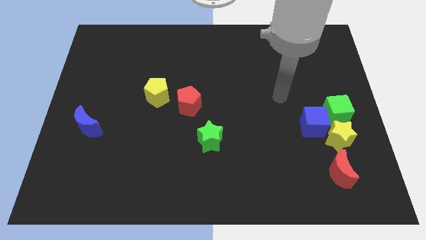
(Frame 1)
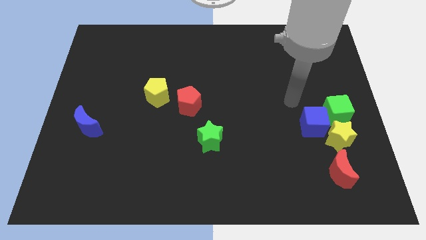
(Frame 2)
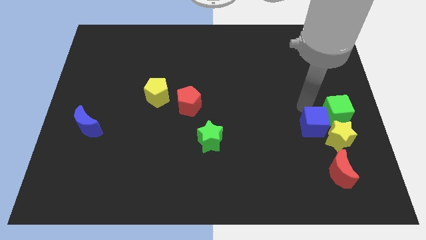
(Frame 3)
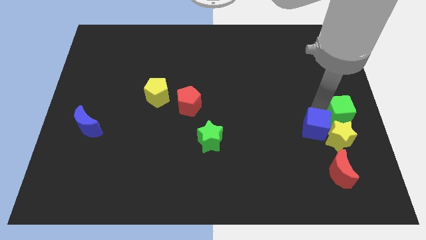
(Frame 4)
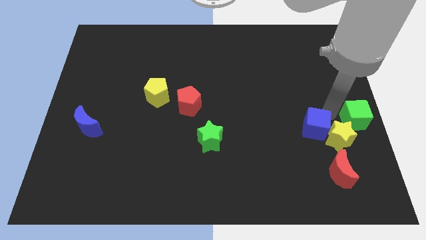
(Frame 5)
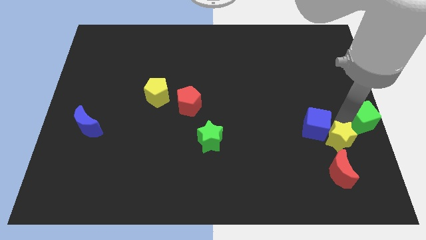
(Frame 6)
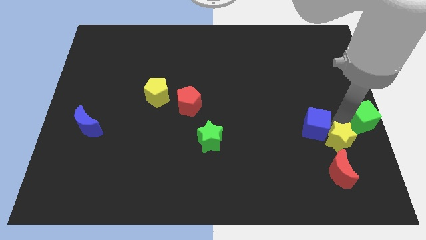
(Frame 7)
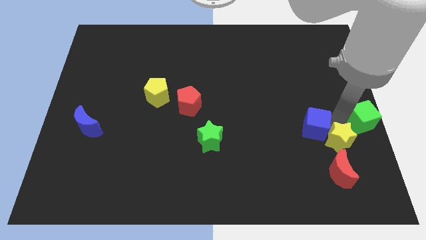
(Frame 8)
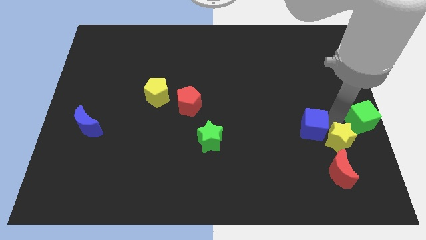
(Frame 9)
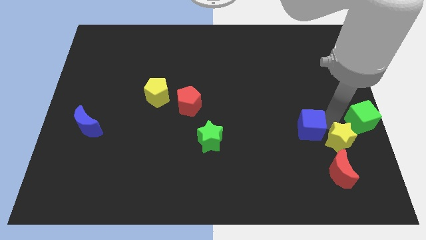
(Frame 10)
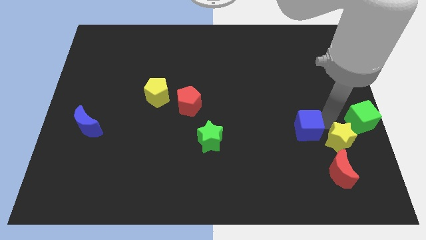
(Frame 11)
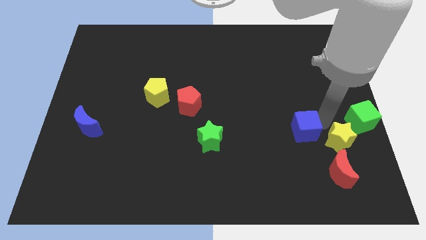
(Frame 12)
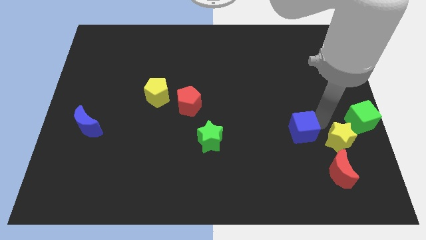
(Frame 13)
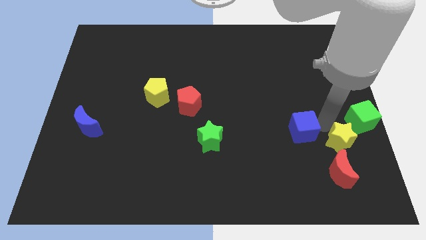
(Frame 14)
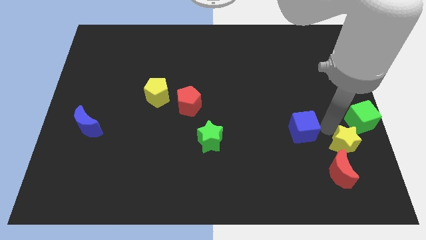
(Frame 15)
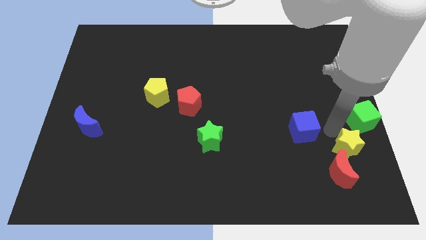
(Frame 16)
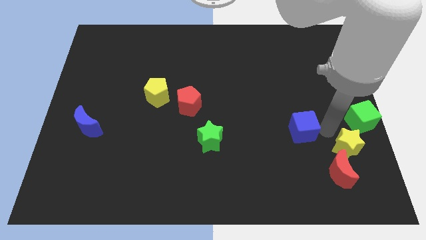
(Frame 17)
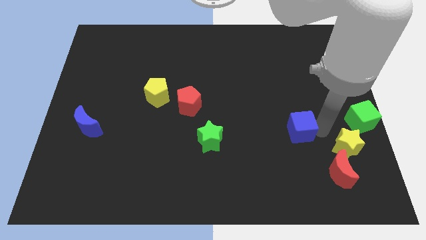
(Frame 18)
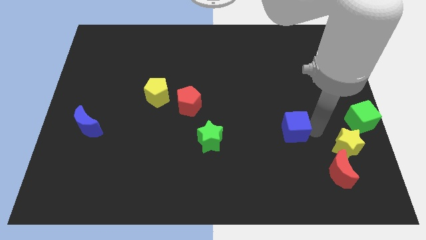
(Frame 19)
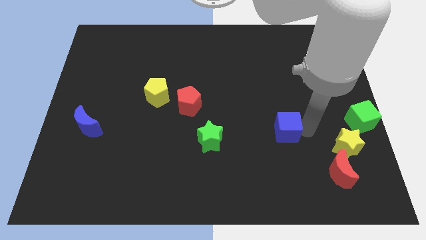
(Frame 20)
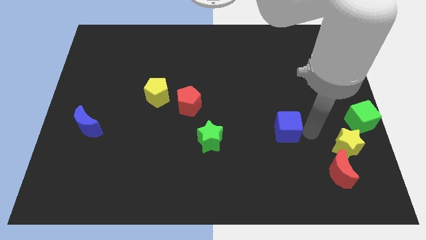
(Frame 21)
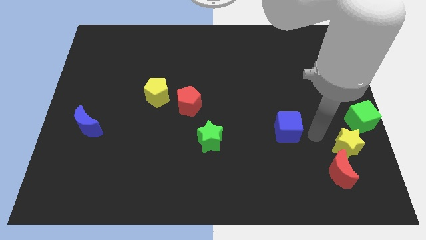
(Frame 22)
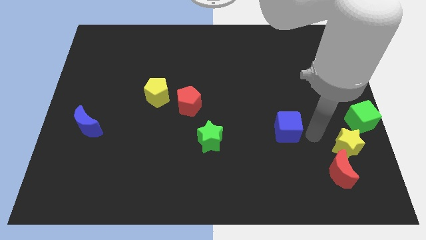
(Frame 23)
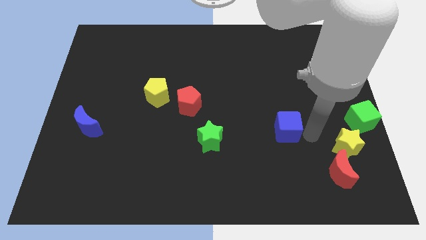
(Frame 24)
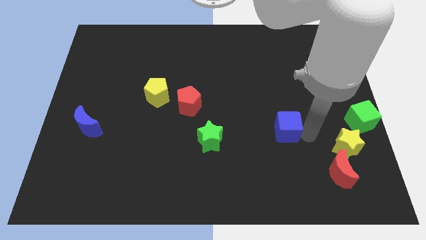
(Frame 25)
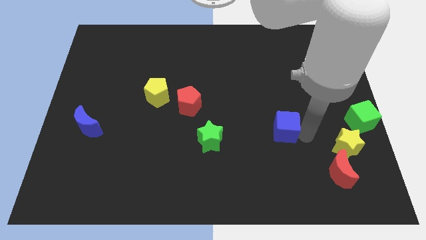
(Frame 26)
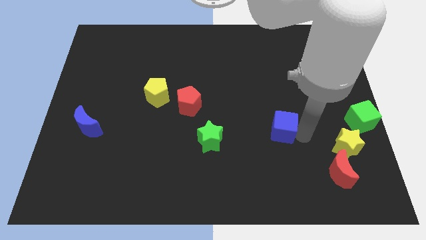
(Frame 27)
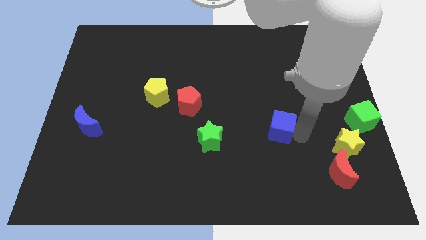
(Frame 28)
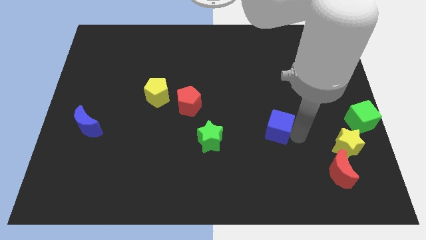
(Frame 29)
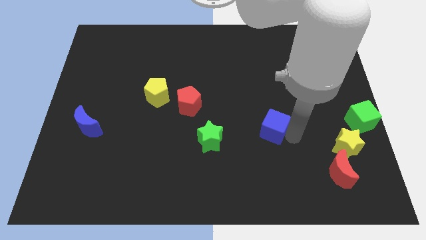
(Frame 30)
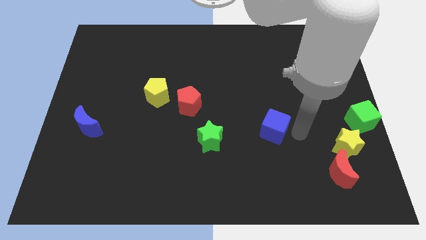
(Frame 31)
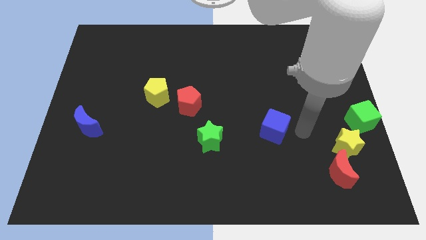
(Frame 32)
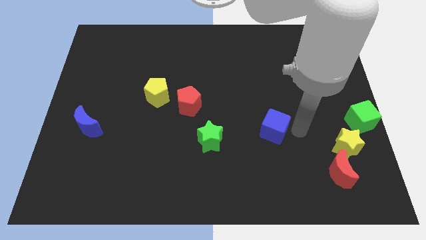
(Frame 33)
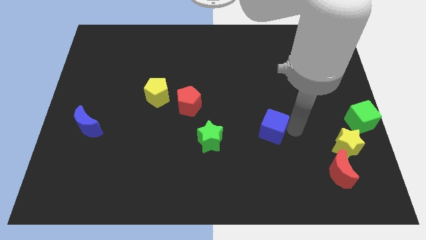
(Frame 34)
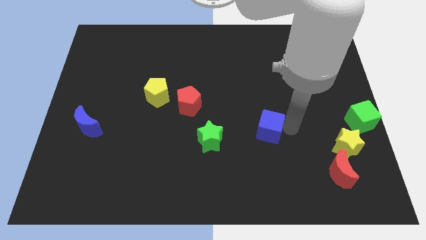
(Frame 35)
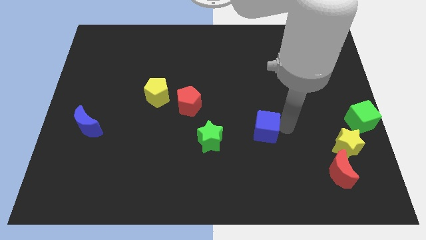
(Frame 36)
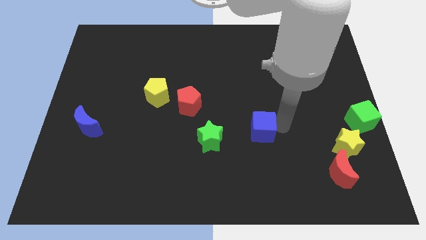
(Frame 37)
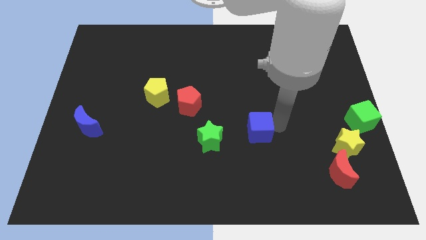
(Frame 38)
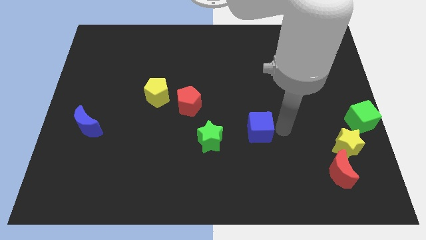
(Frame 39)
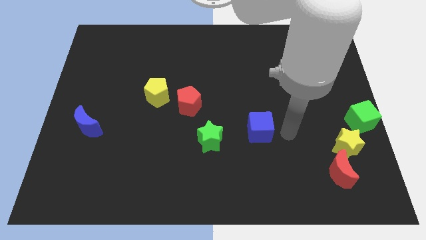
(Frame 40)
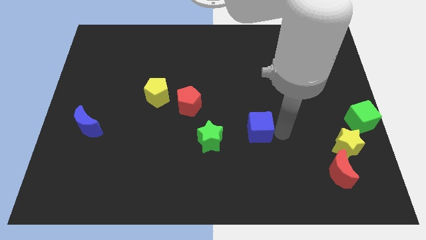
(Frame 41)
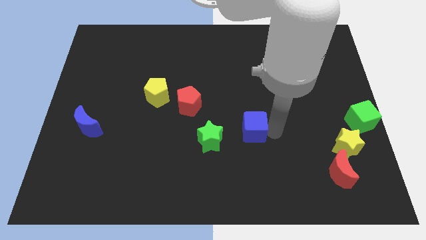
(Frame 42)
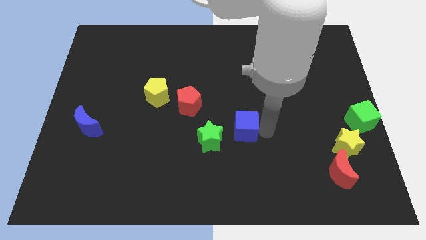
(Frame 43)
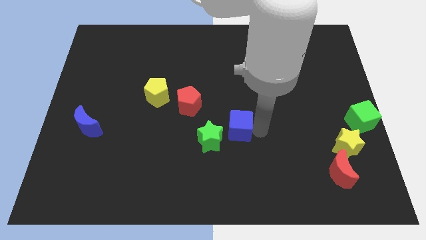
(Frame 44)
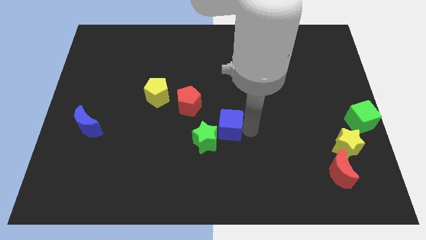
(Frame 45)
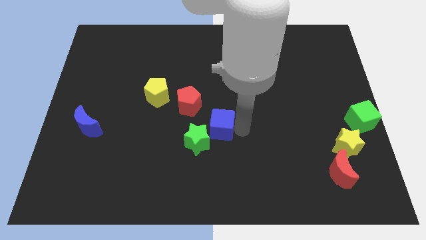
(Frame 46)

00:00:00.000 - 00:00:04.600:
move the blue cube left

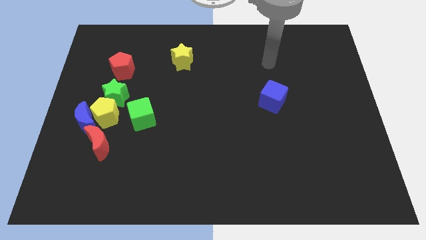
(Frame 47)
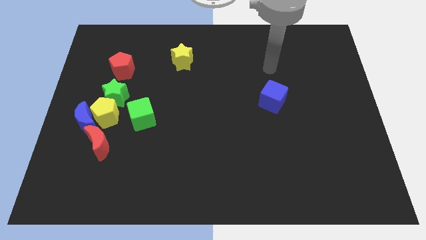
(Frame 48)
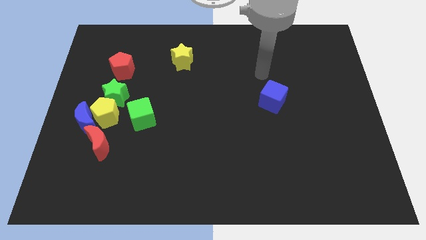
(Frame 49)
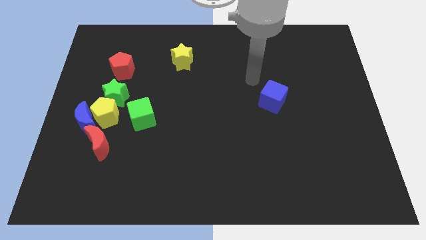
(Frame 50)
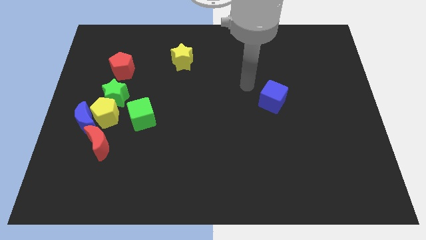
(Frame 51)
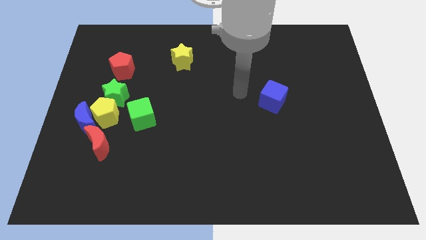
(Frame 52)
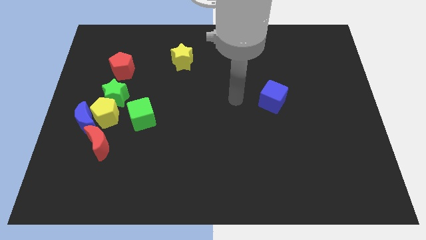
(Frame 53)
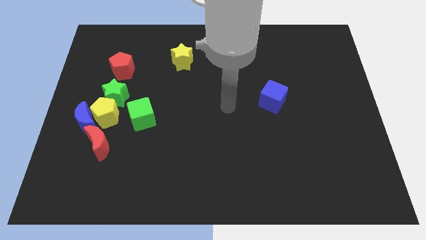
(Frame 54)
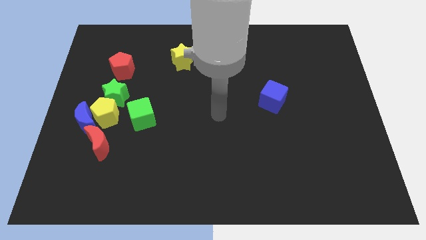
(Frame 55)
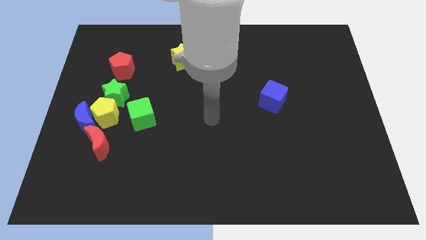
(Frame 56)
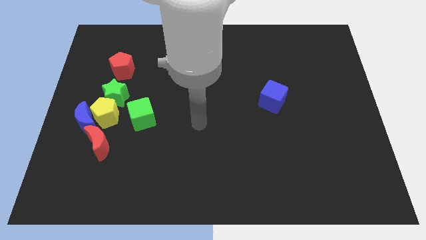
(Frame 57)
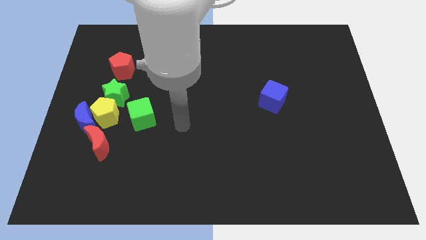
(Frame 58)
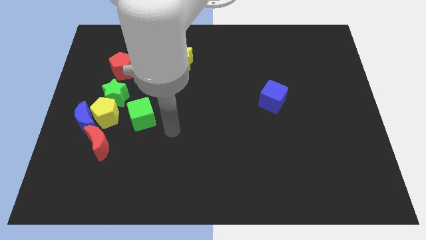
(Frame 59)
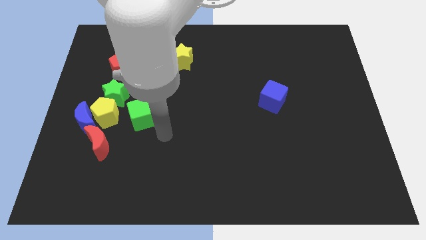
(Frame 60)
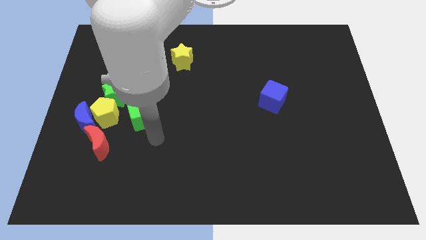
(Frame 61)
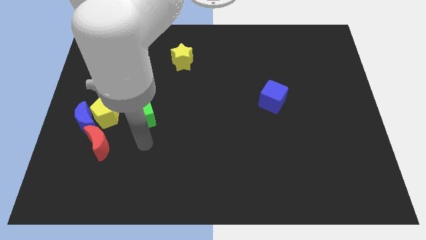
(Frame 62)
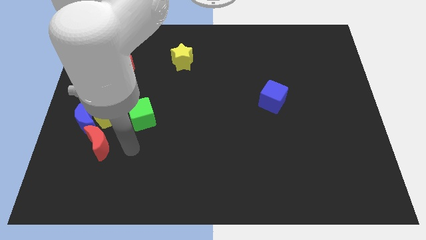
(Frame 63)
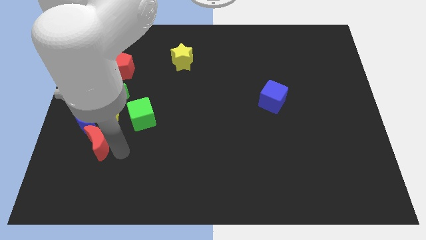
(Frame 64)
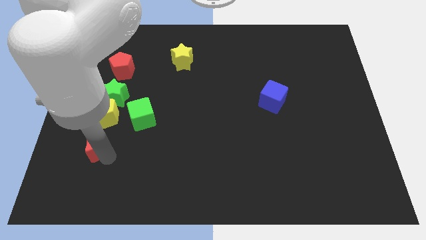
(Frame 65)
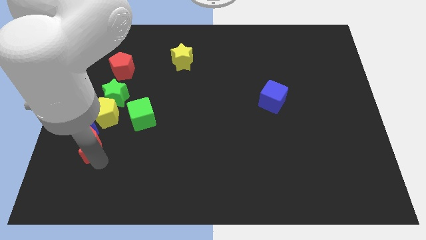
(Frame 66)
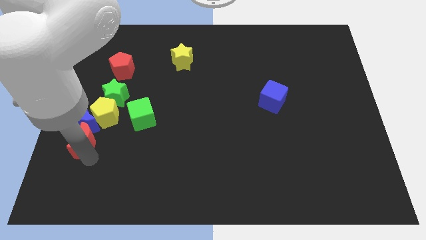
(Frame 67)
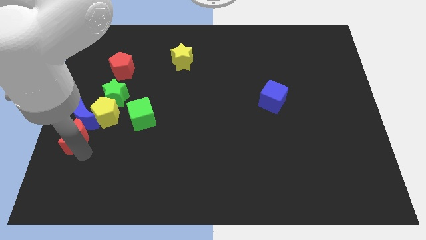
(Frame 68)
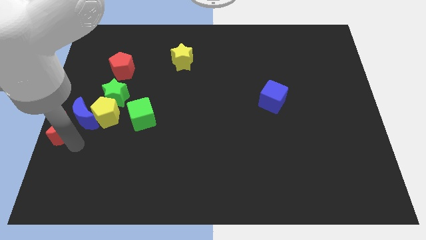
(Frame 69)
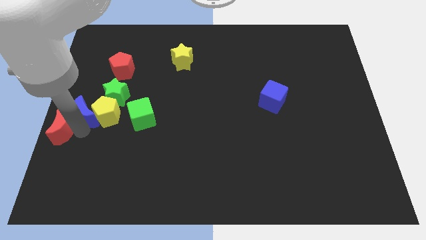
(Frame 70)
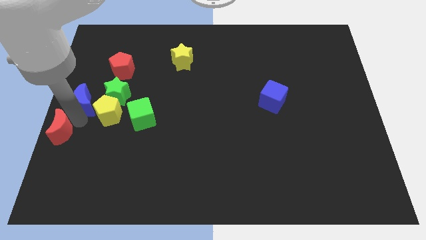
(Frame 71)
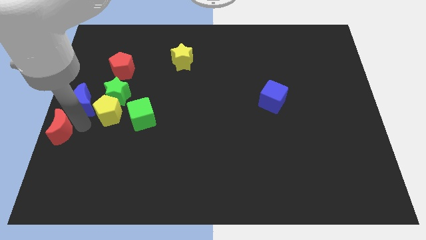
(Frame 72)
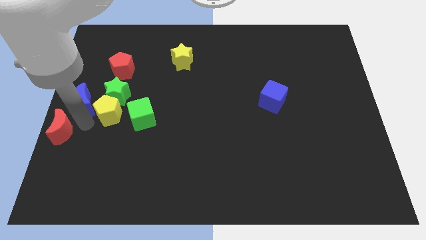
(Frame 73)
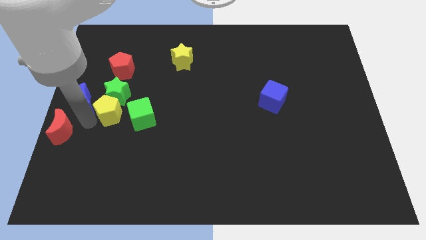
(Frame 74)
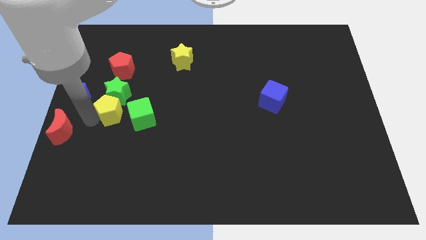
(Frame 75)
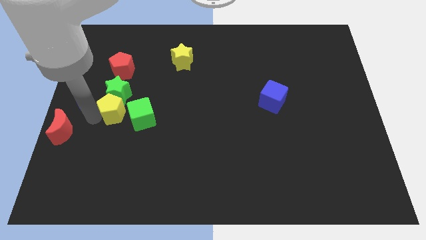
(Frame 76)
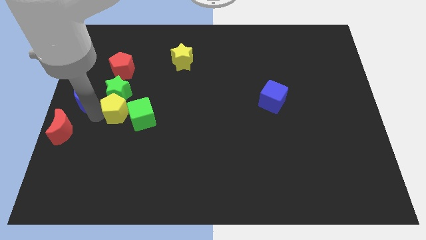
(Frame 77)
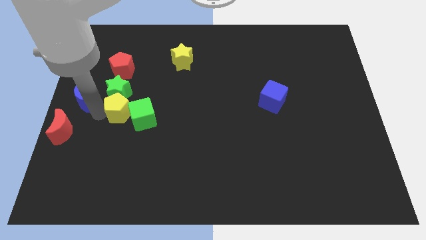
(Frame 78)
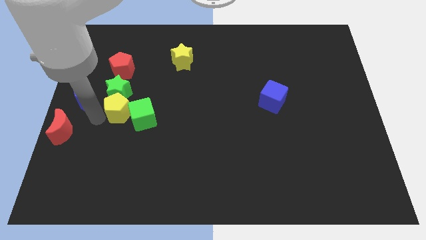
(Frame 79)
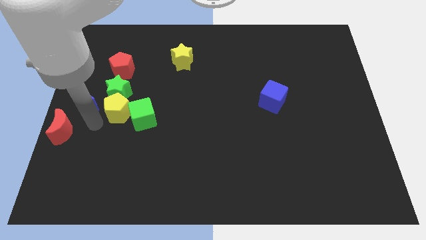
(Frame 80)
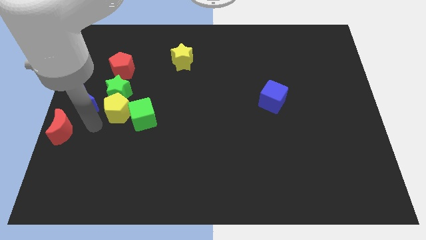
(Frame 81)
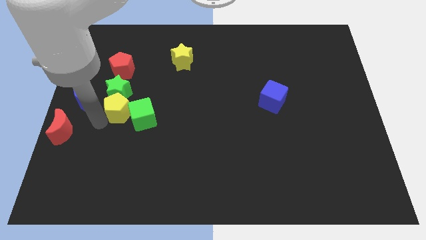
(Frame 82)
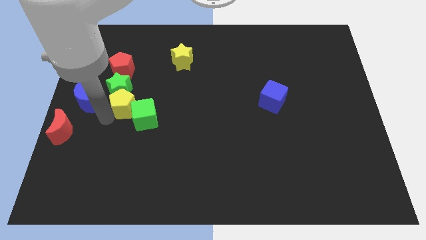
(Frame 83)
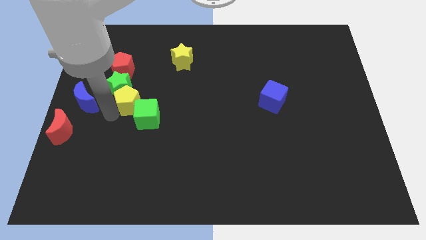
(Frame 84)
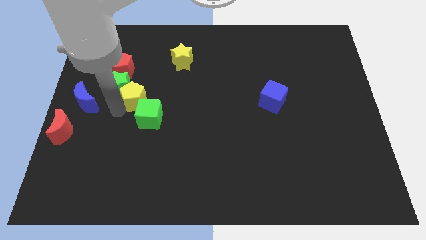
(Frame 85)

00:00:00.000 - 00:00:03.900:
slightly slide the yellow pentagon upwards and to the right
